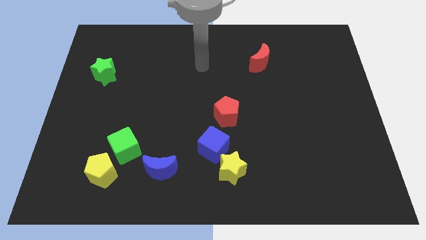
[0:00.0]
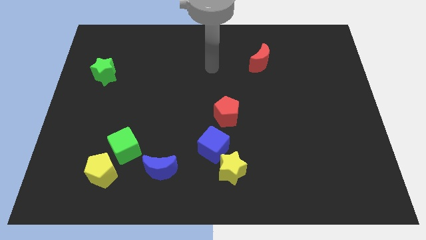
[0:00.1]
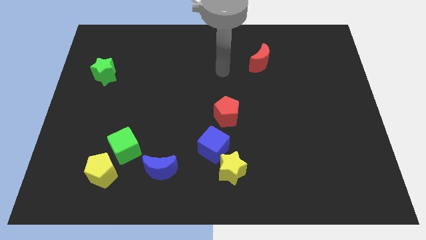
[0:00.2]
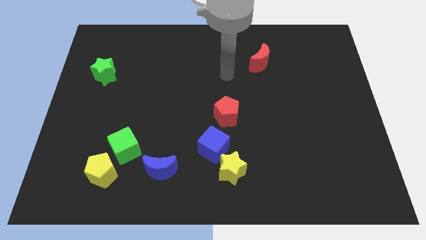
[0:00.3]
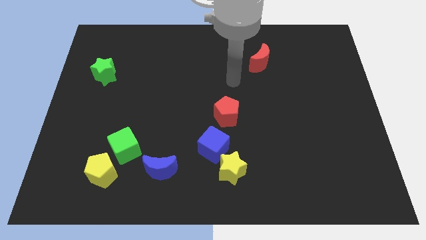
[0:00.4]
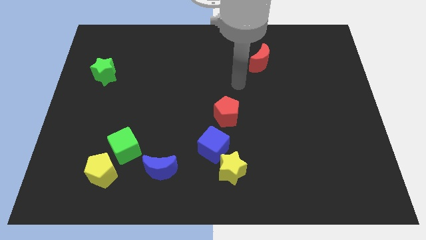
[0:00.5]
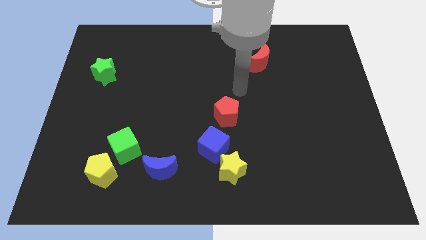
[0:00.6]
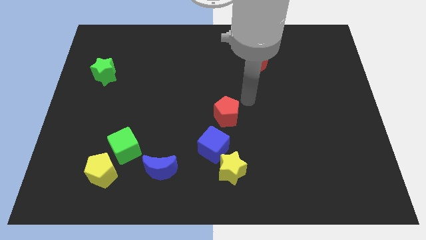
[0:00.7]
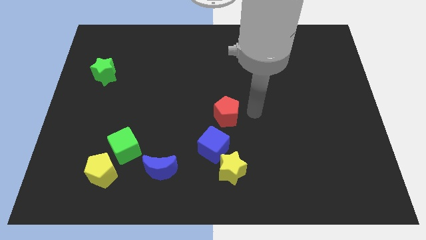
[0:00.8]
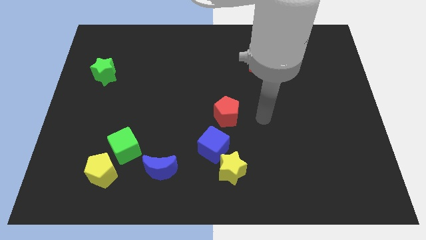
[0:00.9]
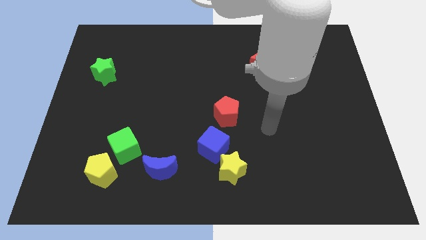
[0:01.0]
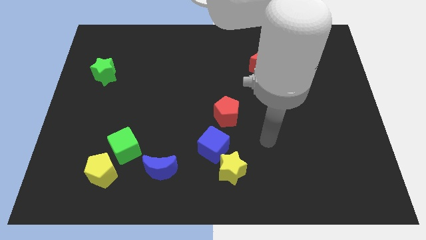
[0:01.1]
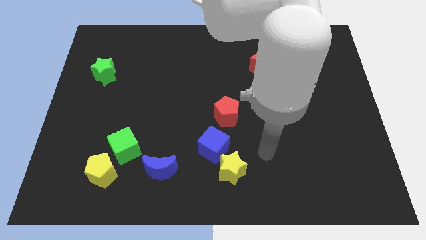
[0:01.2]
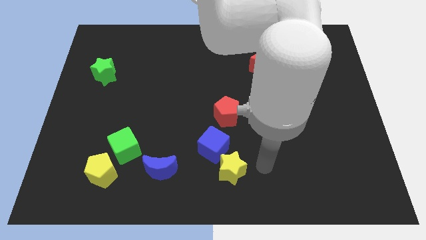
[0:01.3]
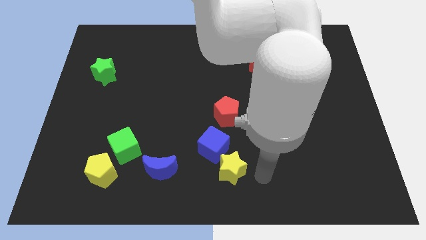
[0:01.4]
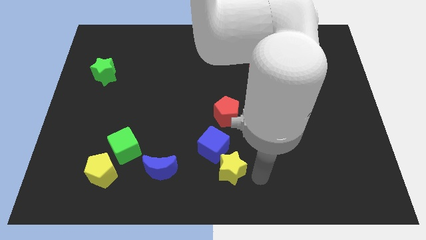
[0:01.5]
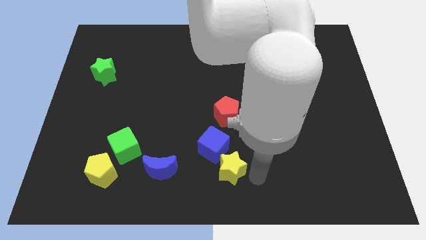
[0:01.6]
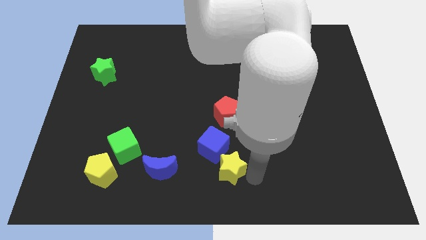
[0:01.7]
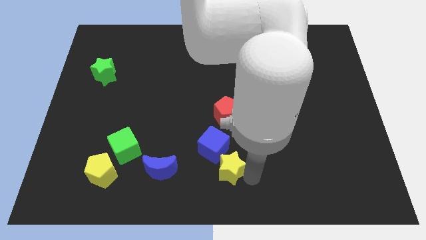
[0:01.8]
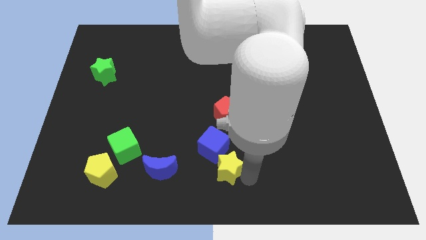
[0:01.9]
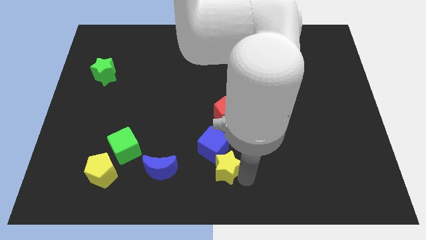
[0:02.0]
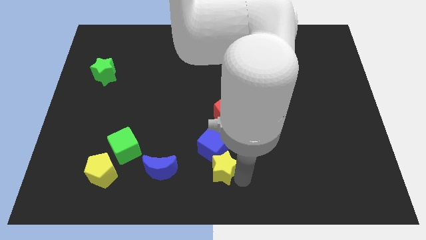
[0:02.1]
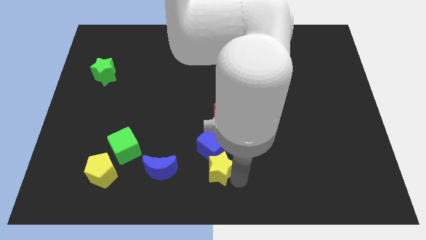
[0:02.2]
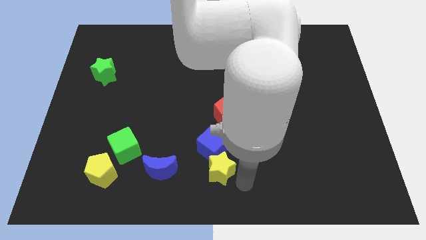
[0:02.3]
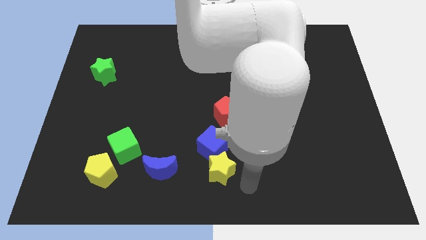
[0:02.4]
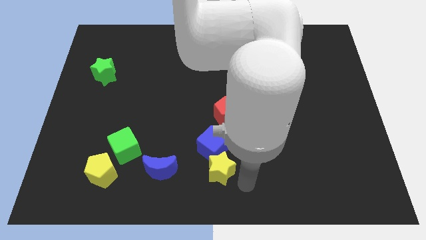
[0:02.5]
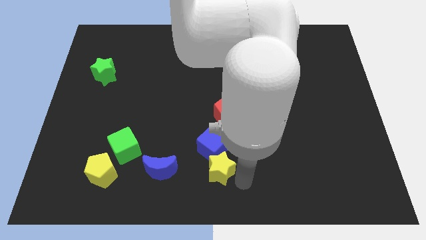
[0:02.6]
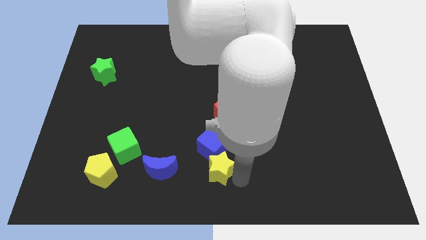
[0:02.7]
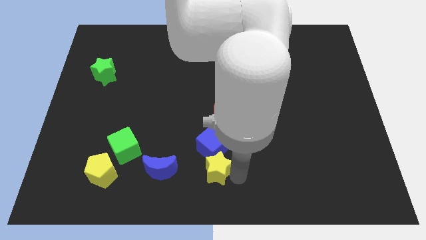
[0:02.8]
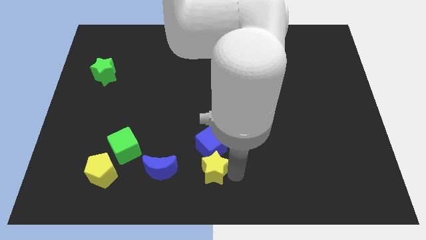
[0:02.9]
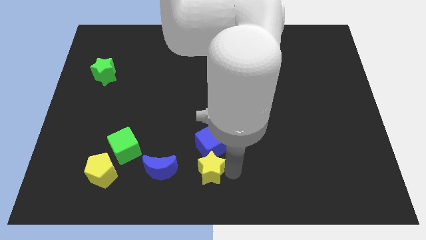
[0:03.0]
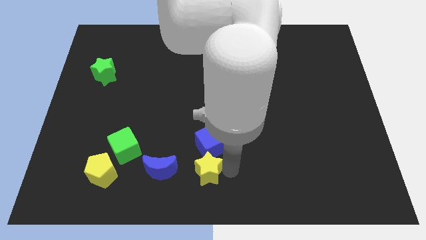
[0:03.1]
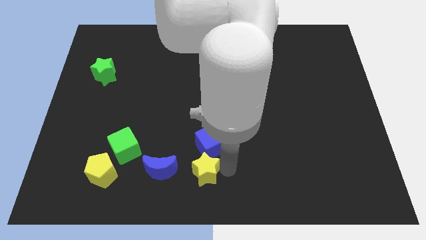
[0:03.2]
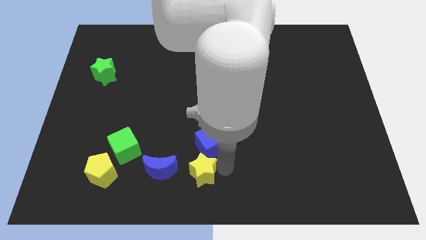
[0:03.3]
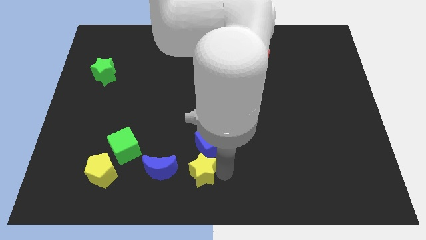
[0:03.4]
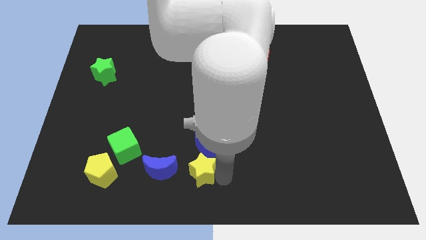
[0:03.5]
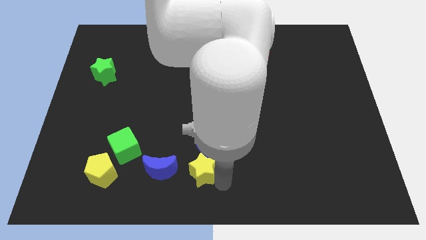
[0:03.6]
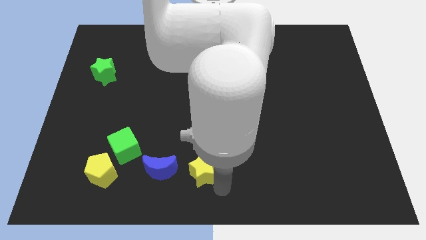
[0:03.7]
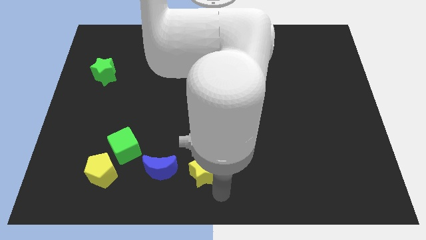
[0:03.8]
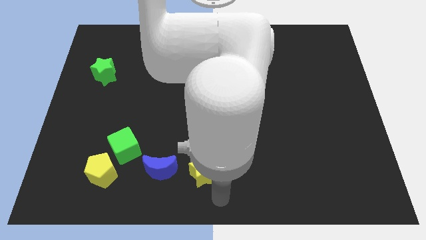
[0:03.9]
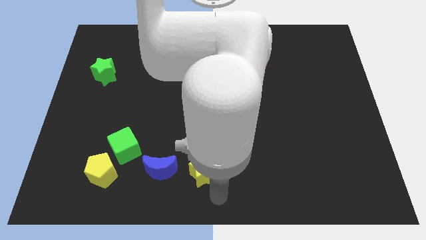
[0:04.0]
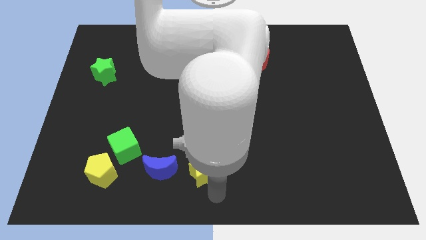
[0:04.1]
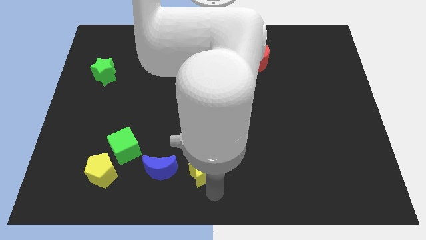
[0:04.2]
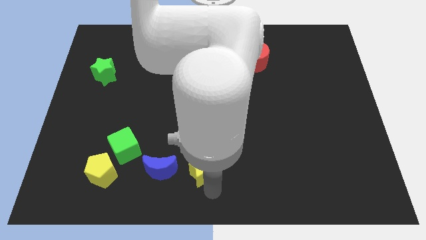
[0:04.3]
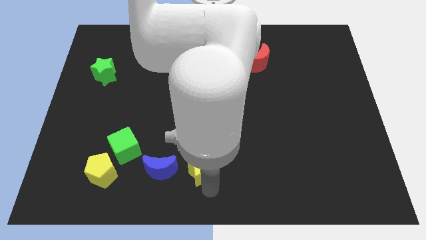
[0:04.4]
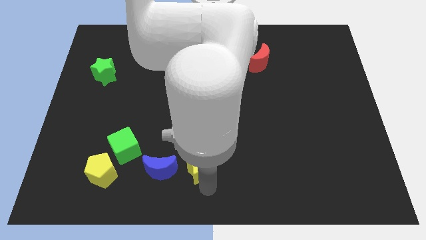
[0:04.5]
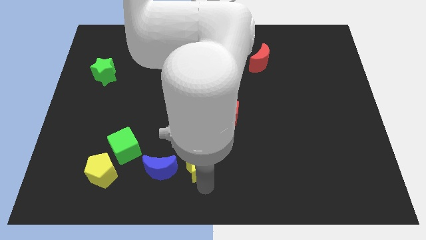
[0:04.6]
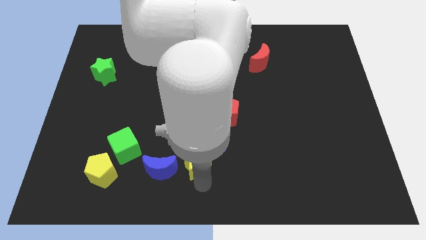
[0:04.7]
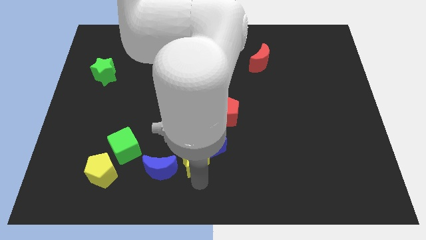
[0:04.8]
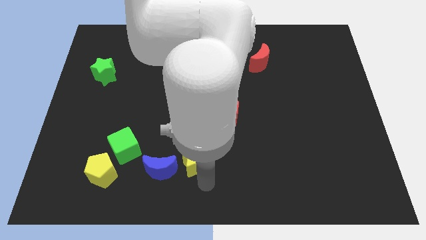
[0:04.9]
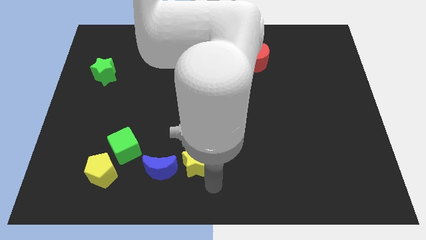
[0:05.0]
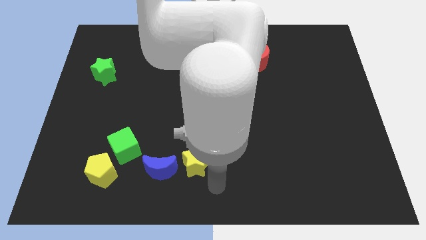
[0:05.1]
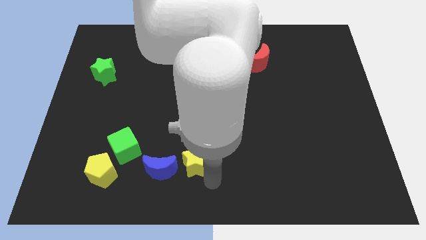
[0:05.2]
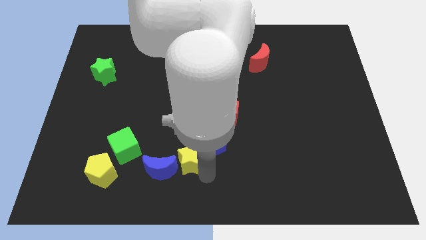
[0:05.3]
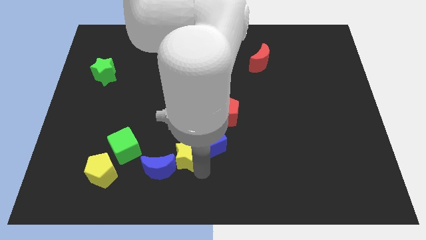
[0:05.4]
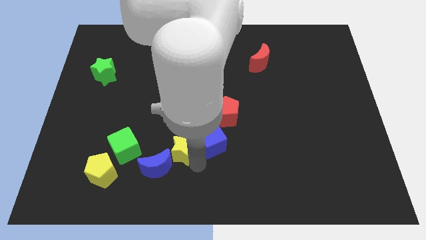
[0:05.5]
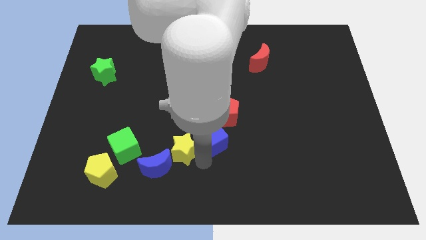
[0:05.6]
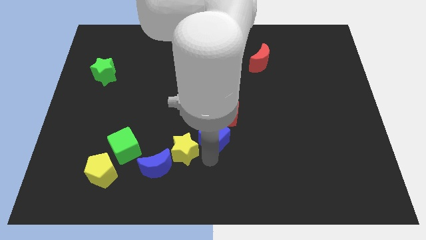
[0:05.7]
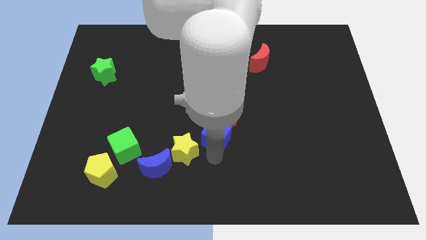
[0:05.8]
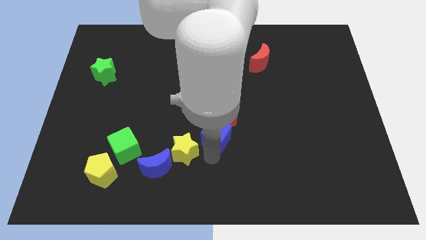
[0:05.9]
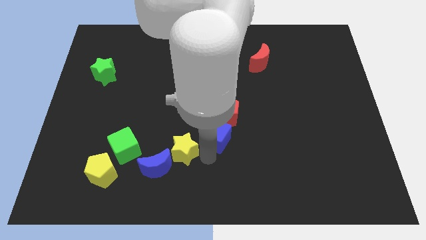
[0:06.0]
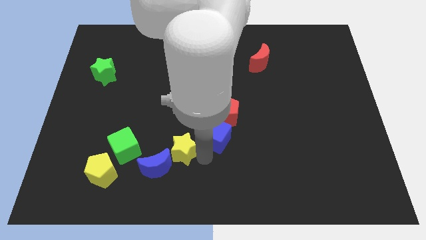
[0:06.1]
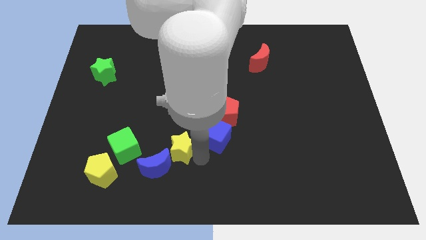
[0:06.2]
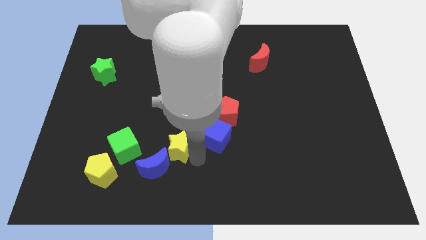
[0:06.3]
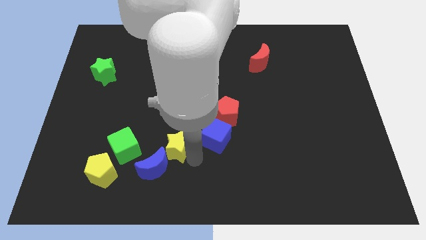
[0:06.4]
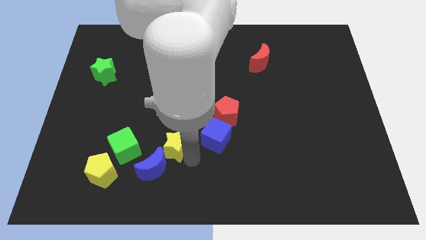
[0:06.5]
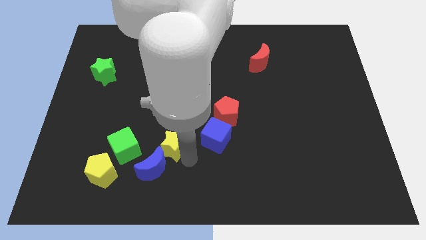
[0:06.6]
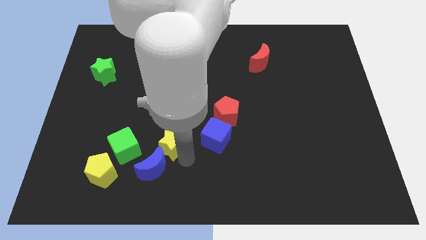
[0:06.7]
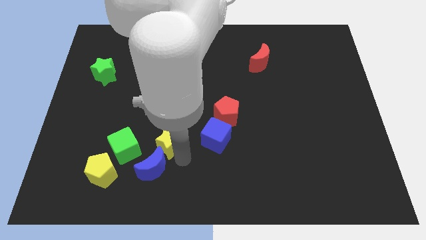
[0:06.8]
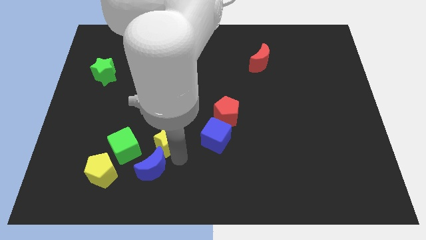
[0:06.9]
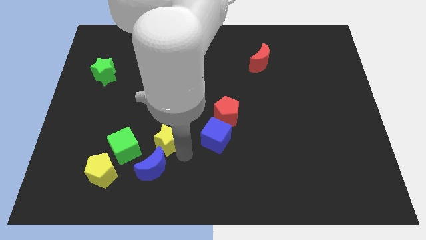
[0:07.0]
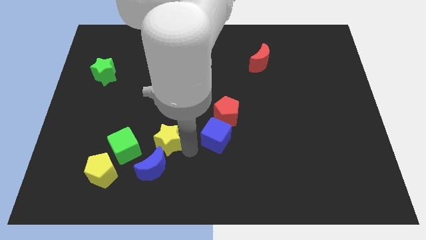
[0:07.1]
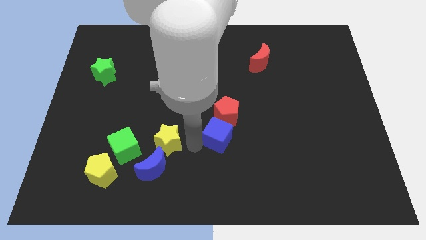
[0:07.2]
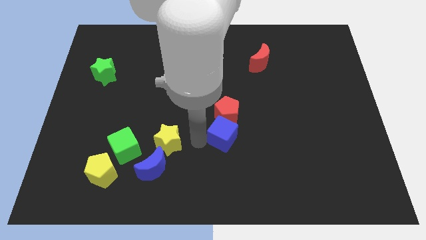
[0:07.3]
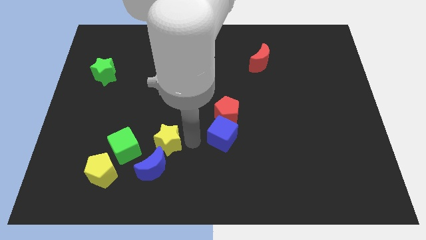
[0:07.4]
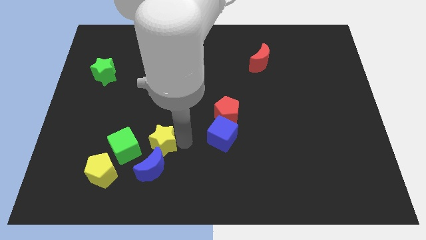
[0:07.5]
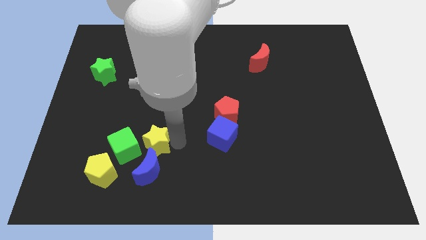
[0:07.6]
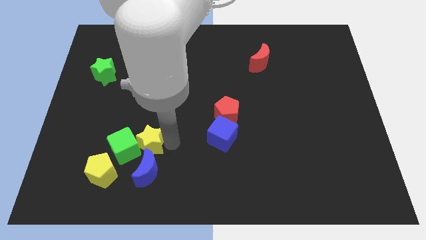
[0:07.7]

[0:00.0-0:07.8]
put the yellow star close to the green cube
